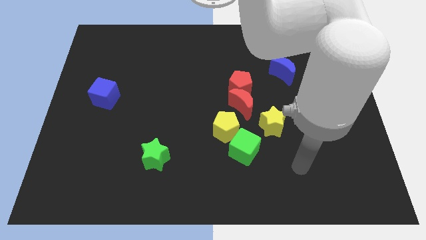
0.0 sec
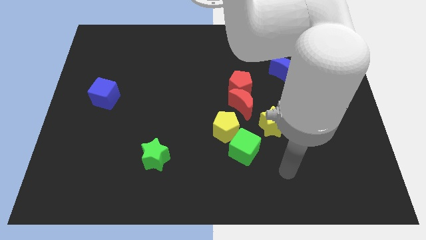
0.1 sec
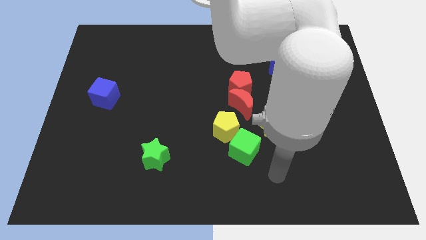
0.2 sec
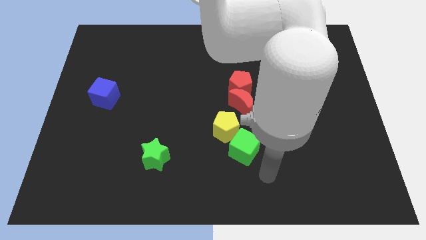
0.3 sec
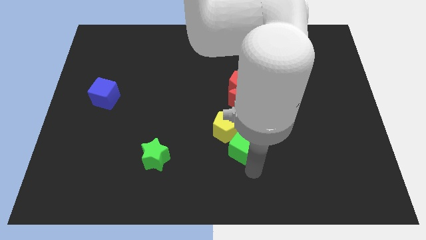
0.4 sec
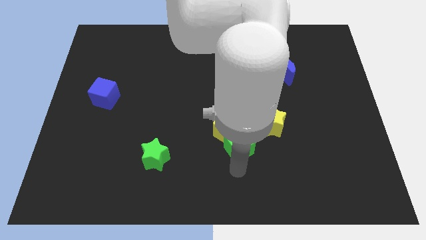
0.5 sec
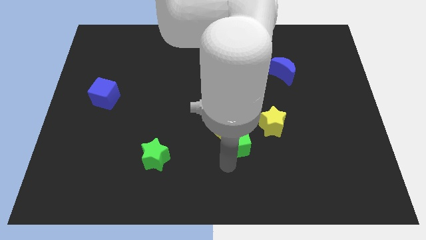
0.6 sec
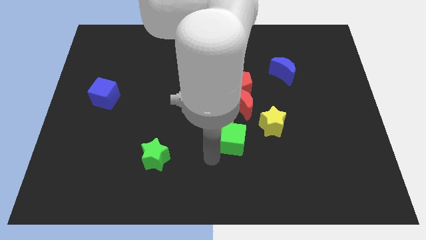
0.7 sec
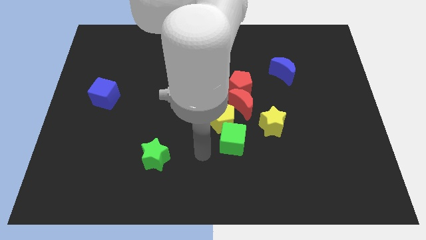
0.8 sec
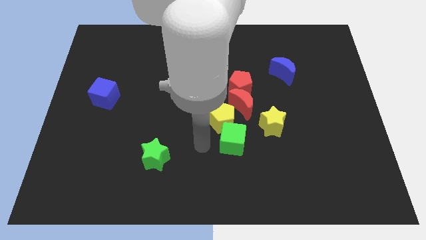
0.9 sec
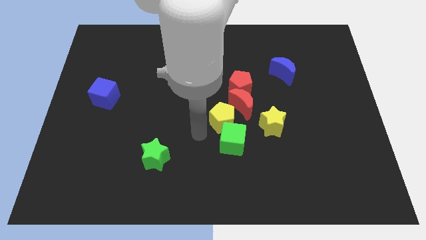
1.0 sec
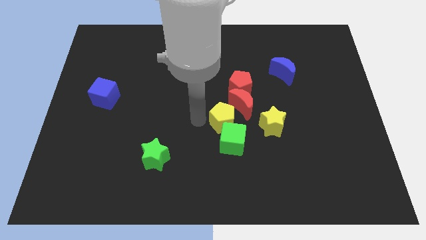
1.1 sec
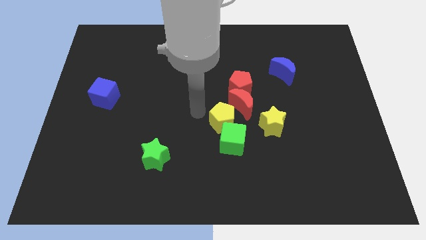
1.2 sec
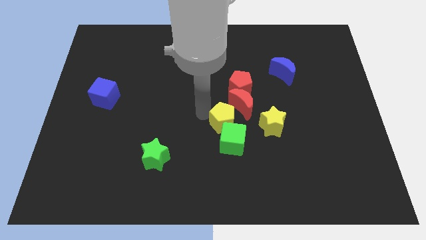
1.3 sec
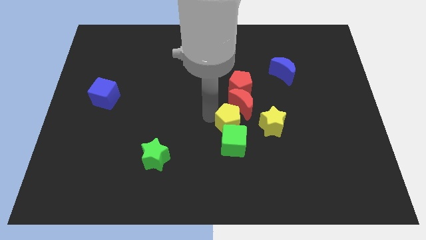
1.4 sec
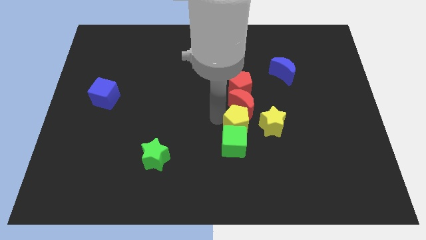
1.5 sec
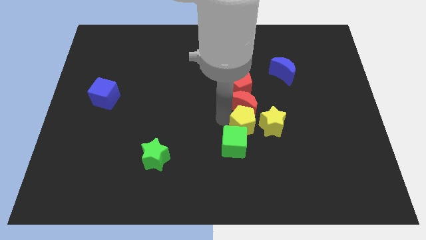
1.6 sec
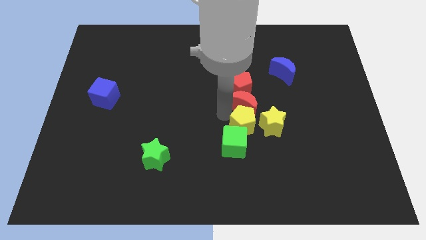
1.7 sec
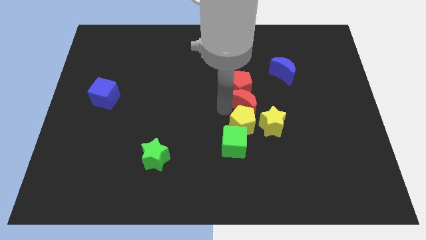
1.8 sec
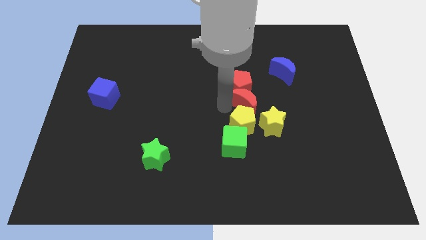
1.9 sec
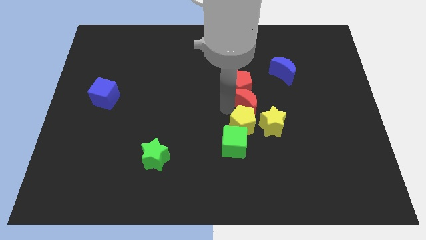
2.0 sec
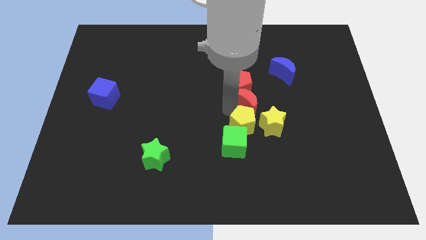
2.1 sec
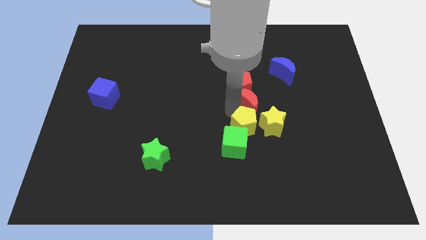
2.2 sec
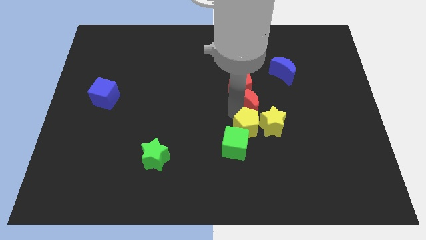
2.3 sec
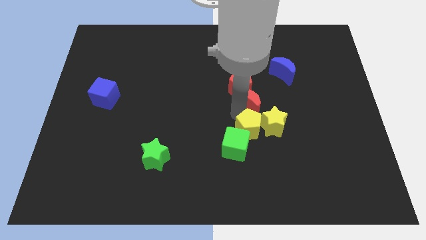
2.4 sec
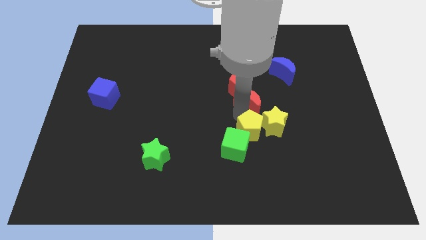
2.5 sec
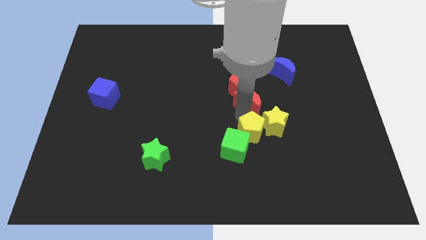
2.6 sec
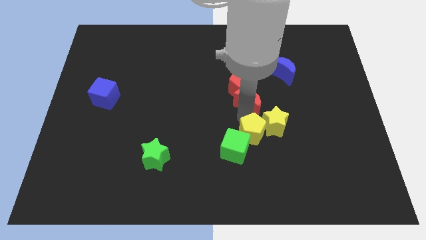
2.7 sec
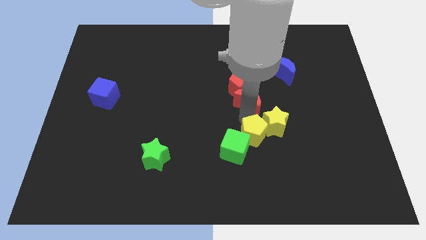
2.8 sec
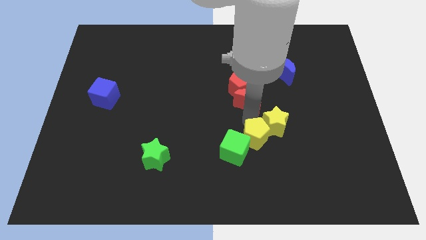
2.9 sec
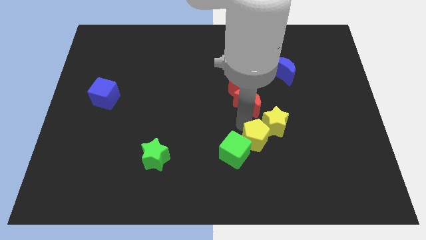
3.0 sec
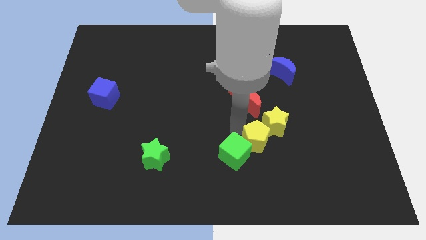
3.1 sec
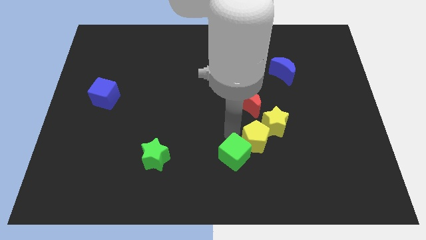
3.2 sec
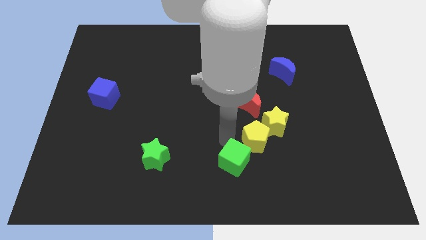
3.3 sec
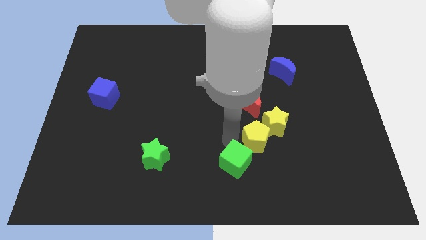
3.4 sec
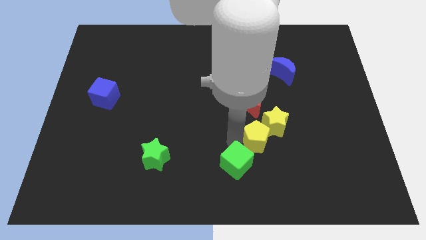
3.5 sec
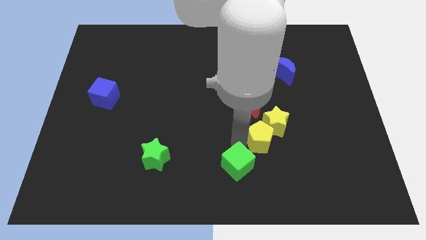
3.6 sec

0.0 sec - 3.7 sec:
push the yellow pentagon somewhat to the right

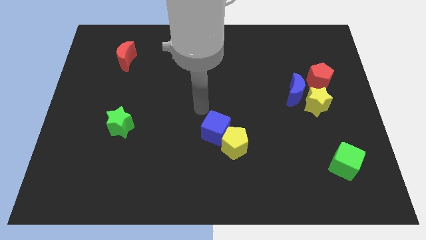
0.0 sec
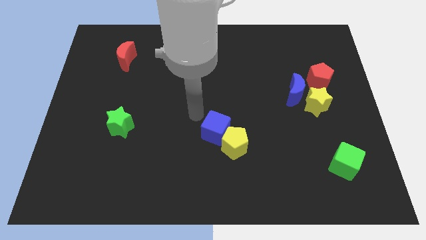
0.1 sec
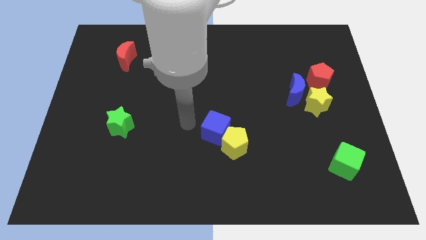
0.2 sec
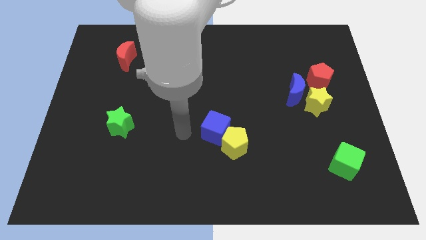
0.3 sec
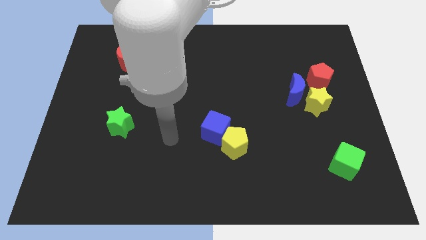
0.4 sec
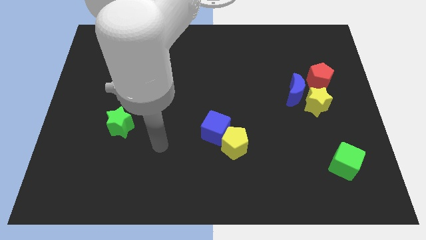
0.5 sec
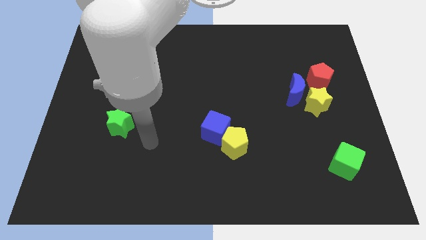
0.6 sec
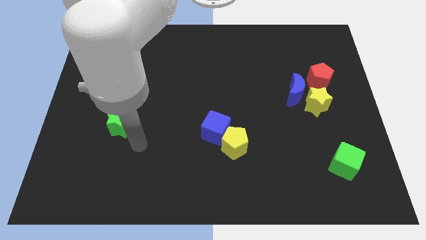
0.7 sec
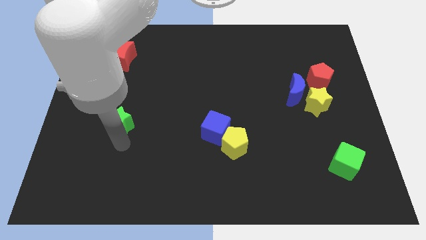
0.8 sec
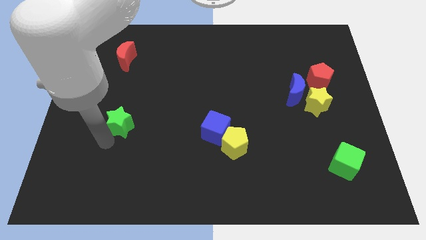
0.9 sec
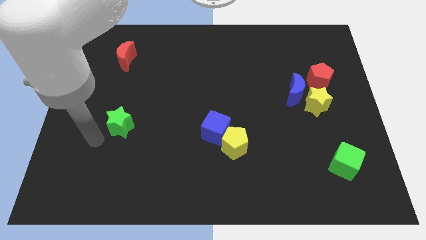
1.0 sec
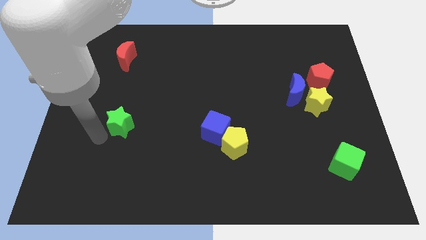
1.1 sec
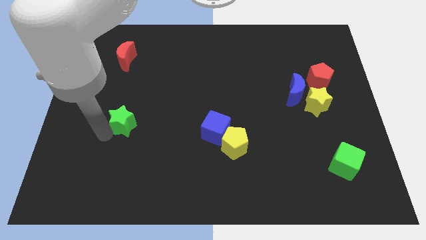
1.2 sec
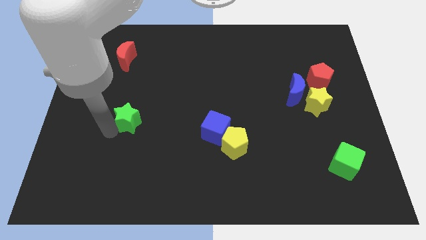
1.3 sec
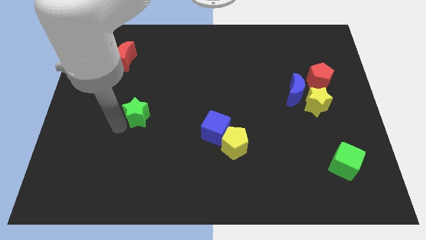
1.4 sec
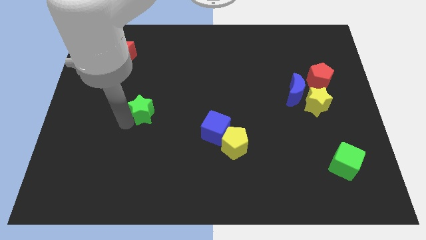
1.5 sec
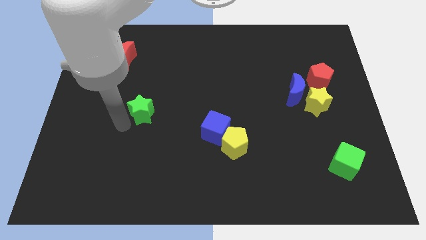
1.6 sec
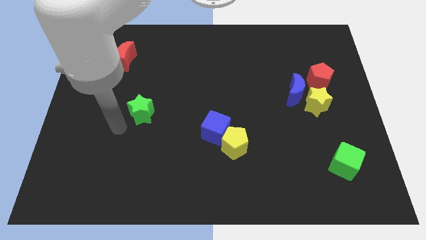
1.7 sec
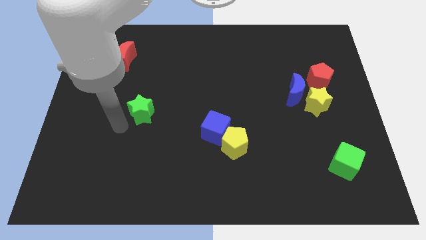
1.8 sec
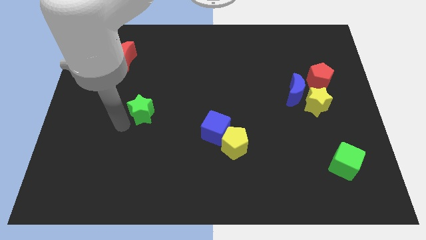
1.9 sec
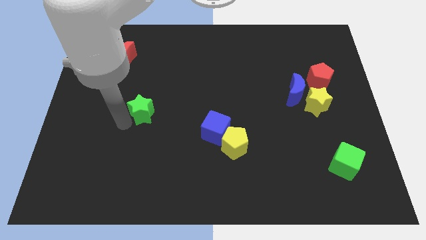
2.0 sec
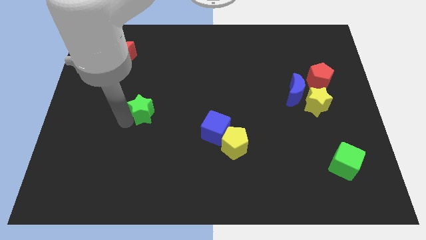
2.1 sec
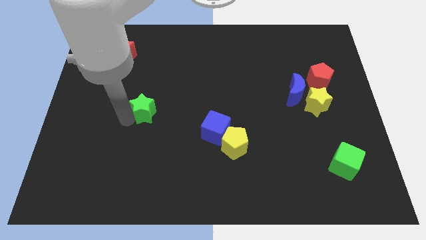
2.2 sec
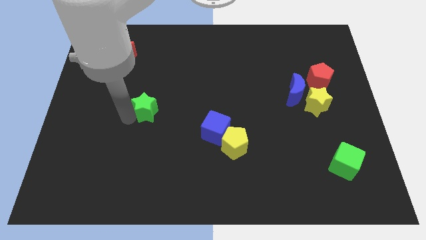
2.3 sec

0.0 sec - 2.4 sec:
slide the green star up and to the right diagonally somewhat

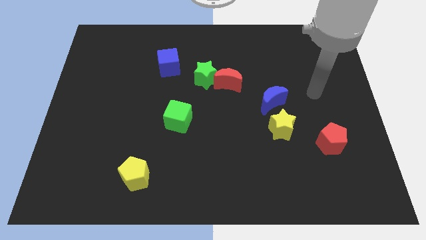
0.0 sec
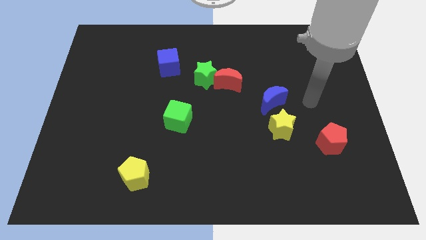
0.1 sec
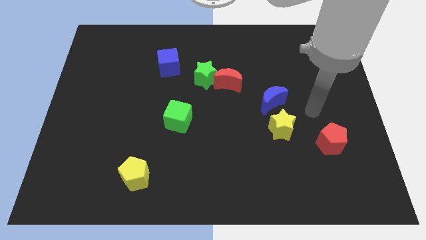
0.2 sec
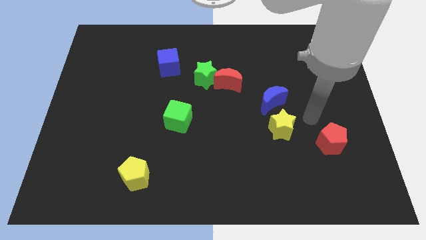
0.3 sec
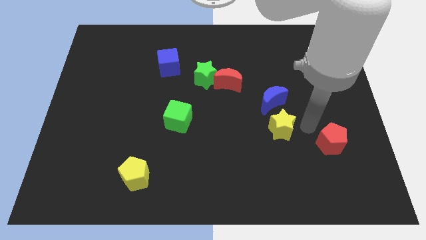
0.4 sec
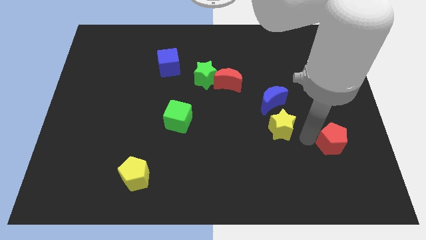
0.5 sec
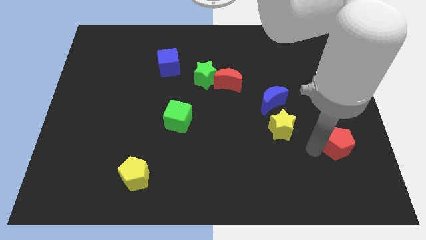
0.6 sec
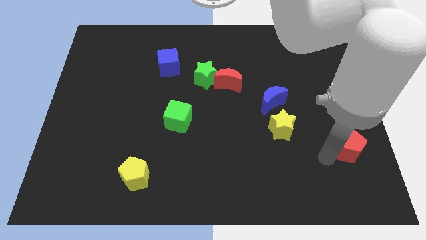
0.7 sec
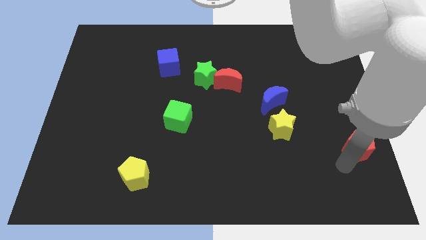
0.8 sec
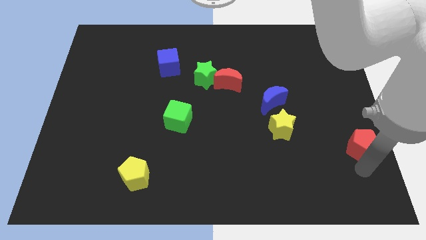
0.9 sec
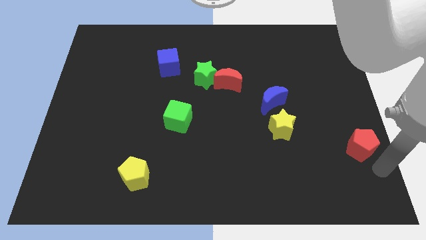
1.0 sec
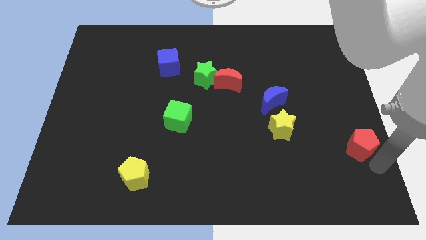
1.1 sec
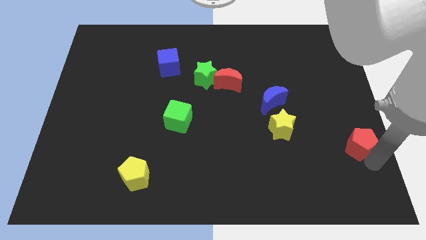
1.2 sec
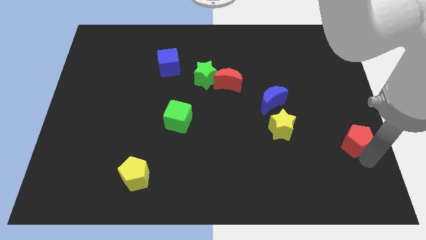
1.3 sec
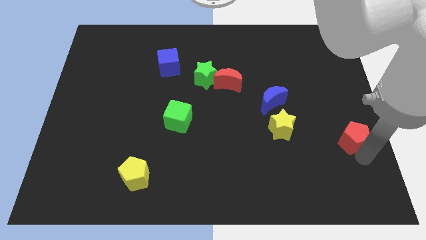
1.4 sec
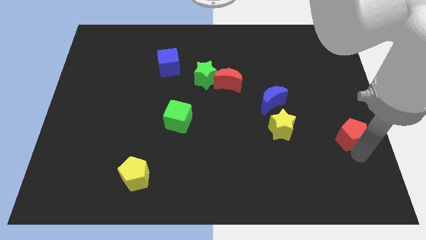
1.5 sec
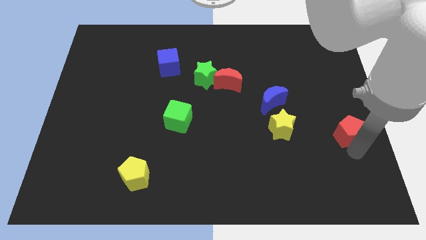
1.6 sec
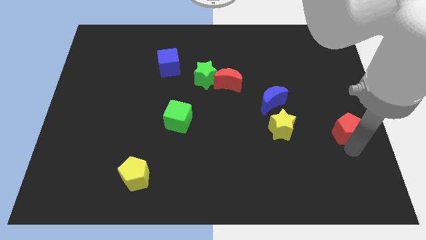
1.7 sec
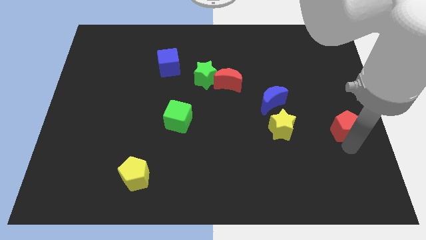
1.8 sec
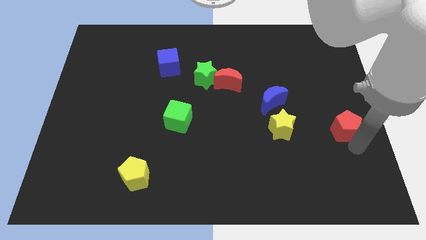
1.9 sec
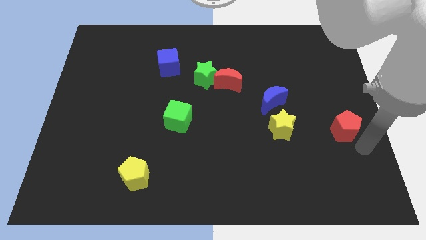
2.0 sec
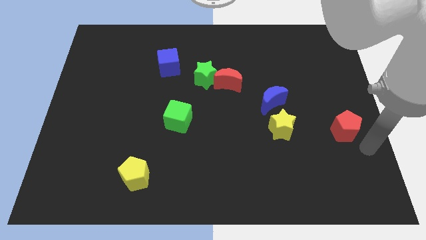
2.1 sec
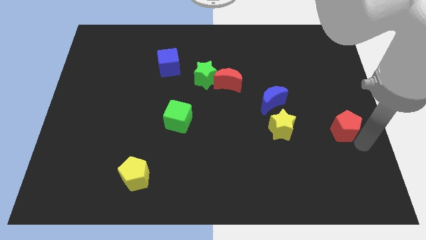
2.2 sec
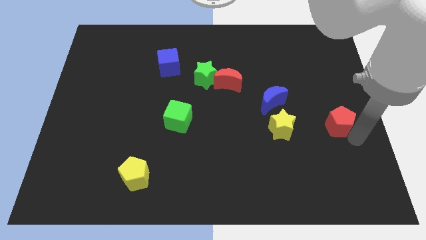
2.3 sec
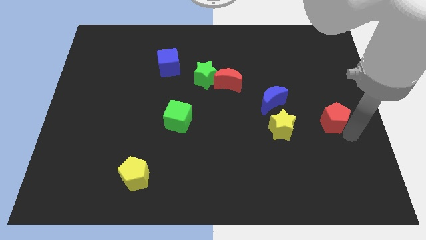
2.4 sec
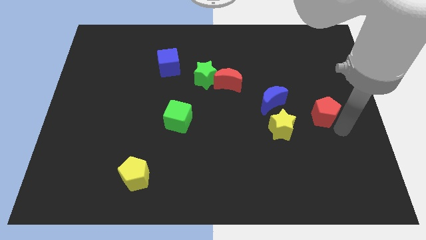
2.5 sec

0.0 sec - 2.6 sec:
push the red pentagon upwards slightly
